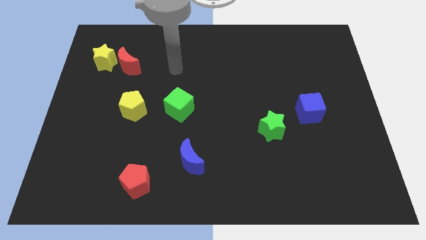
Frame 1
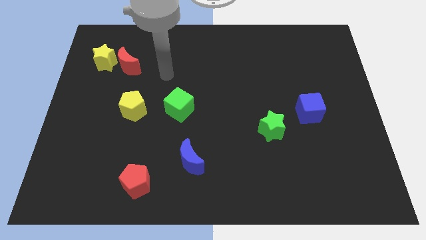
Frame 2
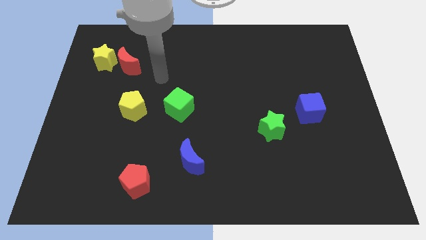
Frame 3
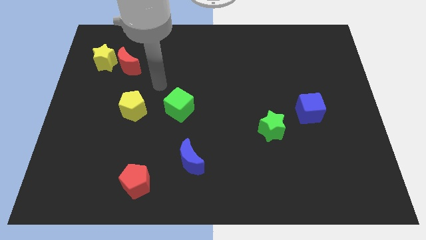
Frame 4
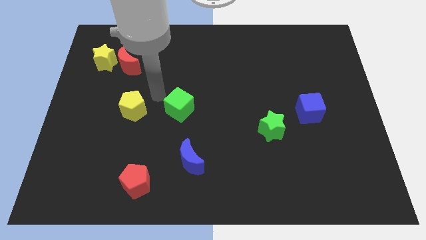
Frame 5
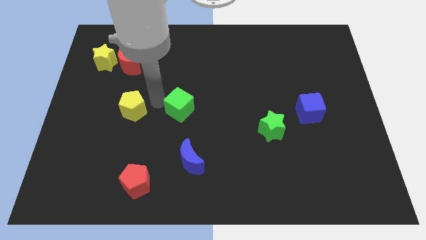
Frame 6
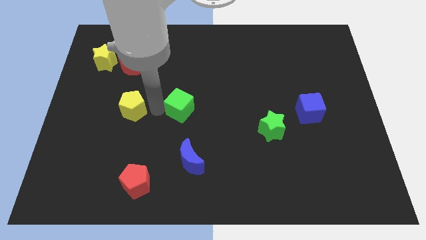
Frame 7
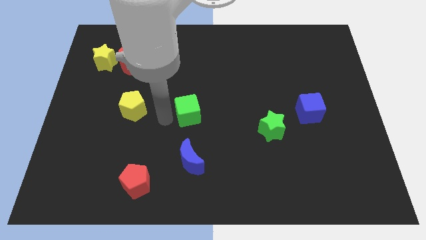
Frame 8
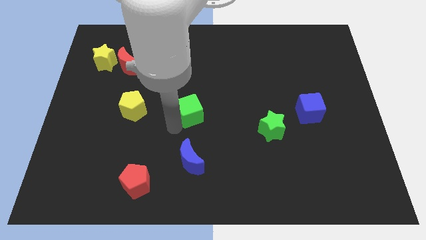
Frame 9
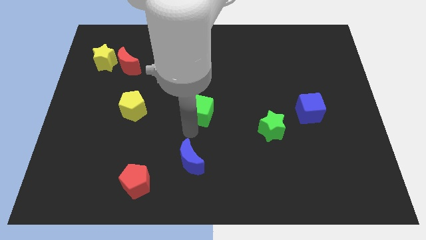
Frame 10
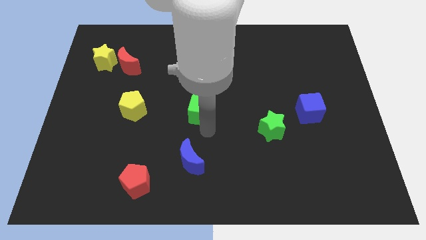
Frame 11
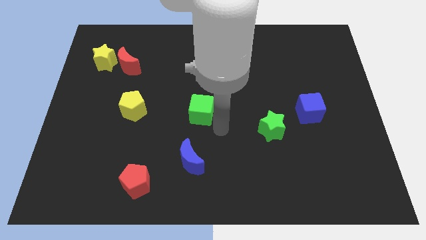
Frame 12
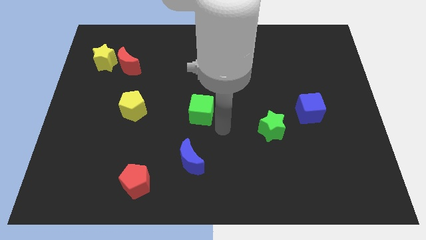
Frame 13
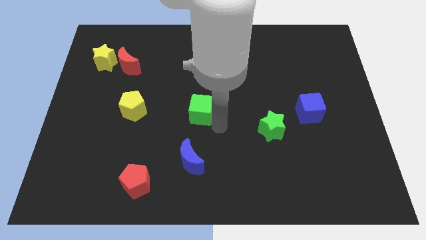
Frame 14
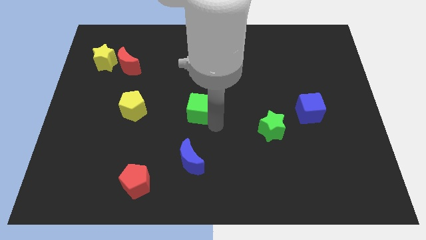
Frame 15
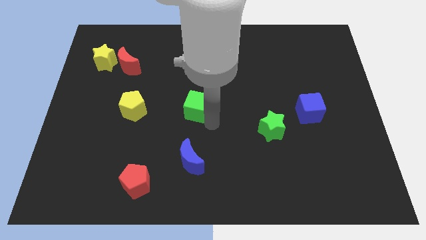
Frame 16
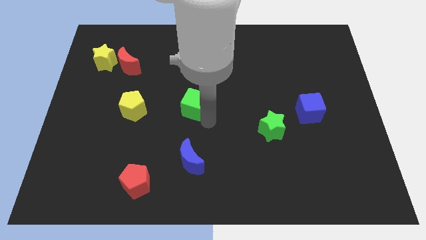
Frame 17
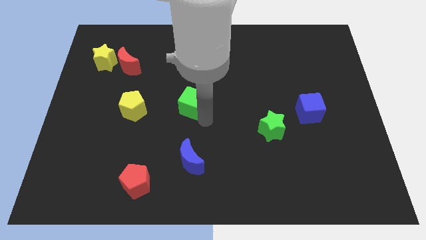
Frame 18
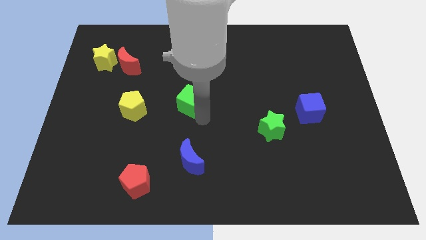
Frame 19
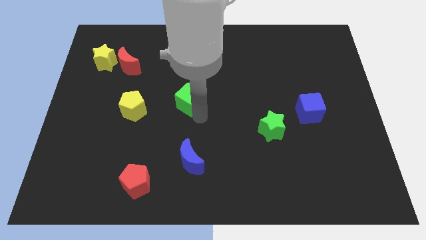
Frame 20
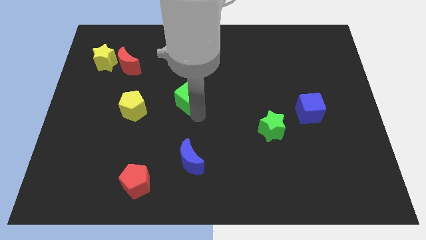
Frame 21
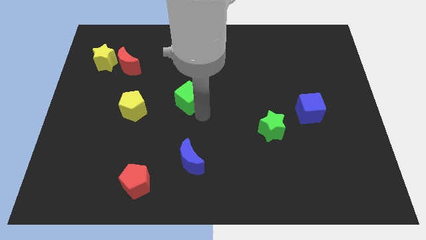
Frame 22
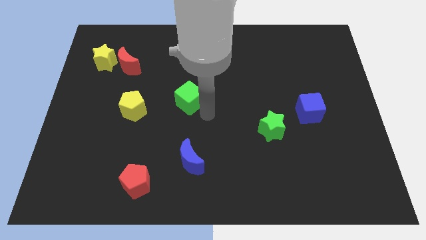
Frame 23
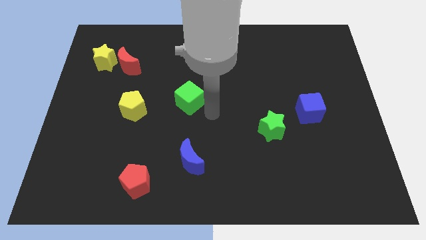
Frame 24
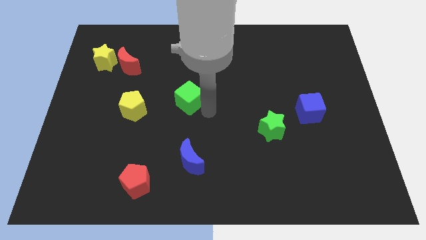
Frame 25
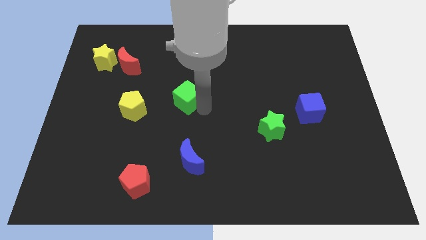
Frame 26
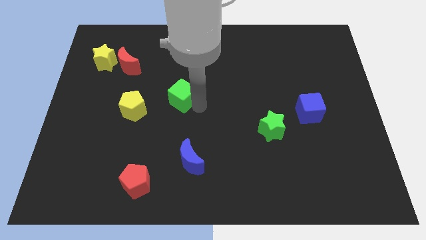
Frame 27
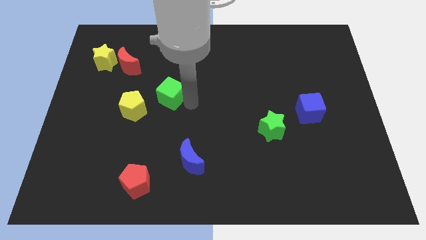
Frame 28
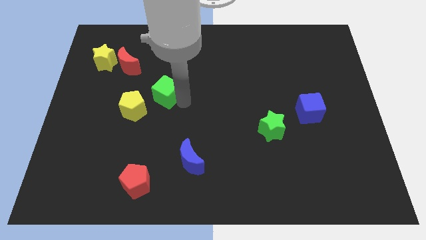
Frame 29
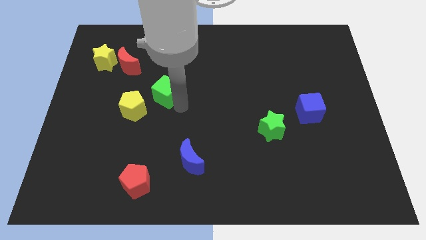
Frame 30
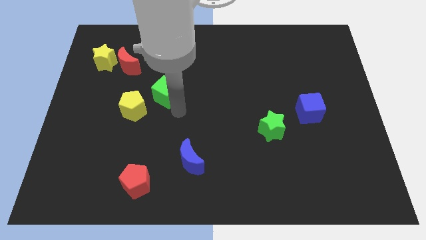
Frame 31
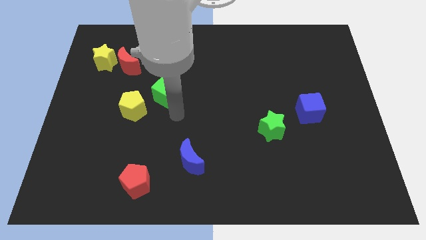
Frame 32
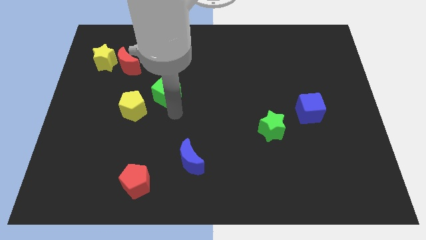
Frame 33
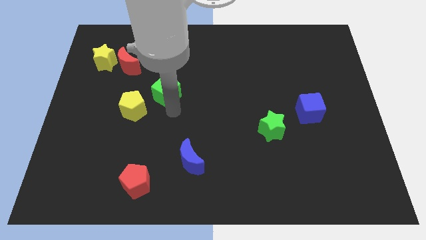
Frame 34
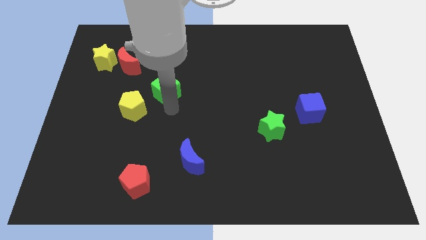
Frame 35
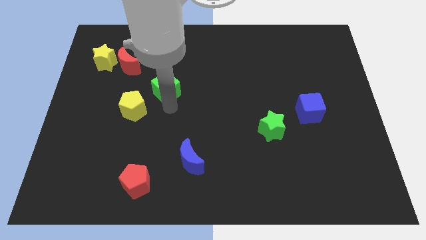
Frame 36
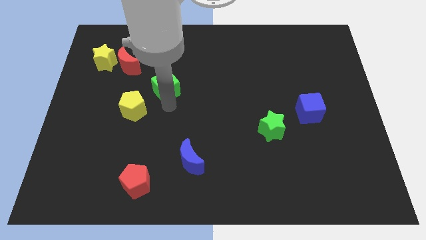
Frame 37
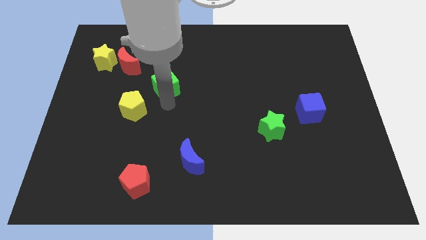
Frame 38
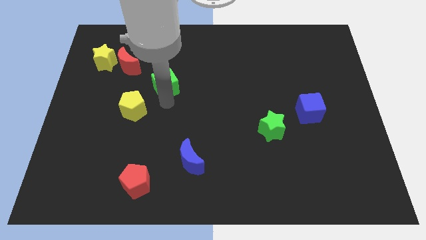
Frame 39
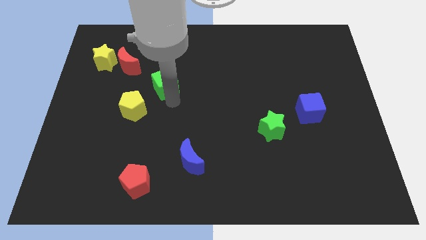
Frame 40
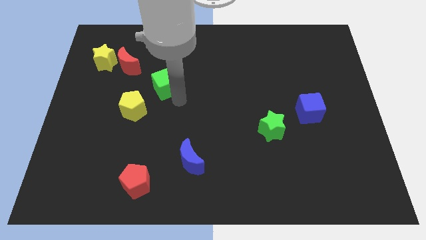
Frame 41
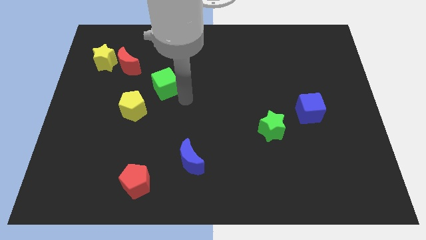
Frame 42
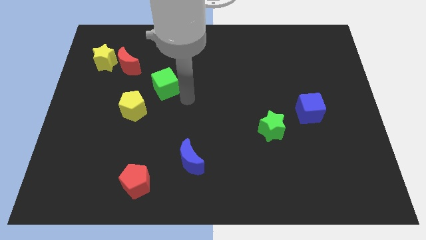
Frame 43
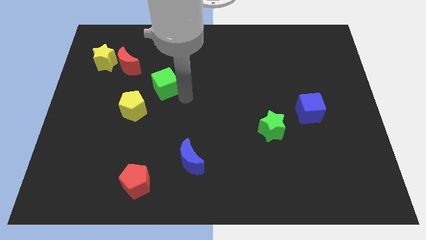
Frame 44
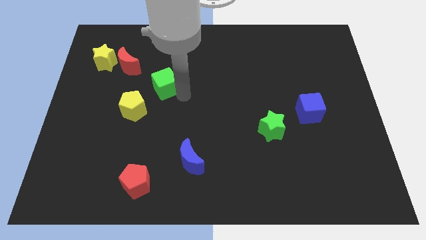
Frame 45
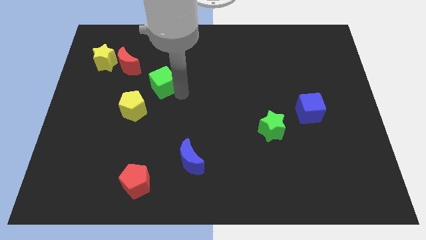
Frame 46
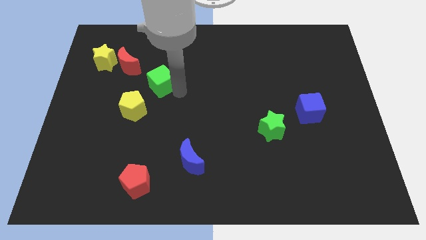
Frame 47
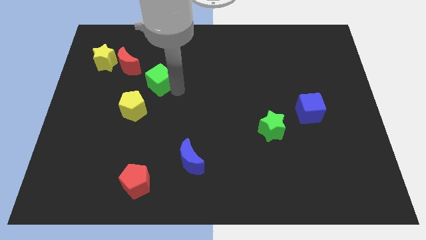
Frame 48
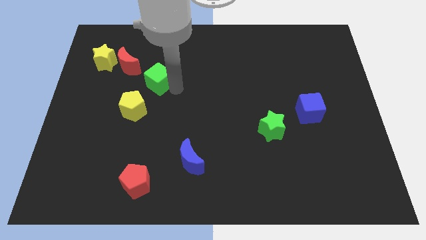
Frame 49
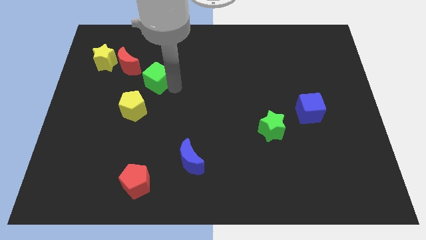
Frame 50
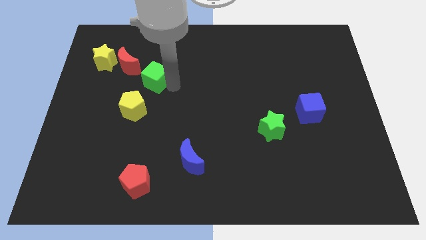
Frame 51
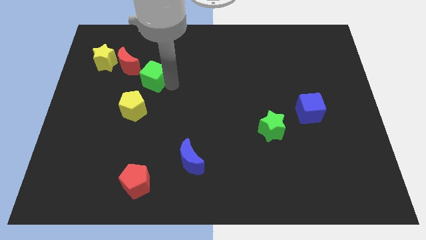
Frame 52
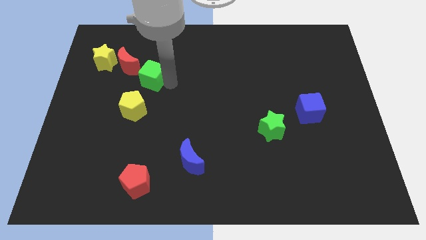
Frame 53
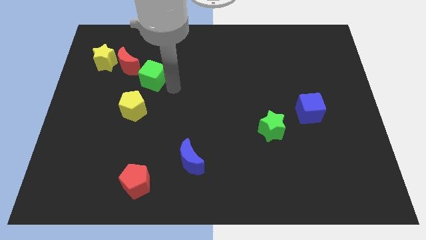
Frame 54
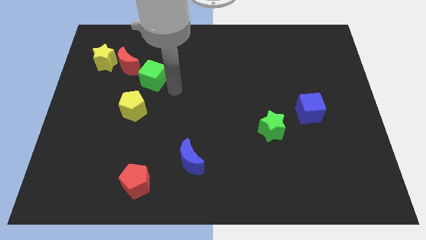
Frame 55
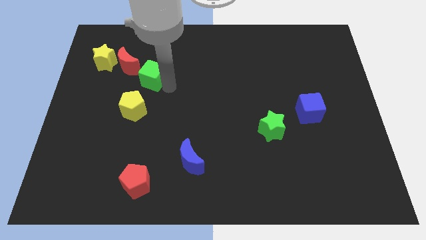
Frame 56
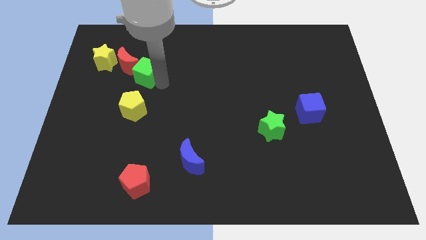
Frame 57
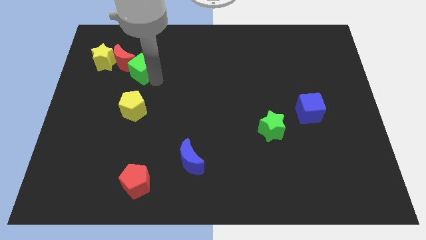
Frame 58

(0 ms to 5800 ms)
move the green cube to the red moon

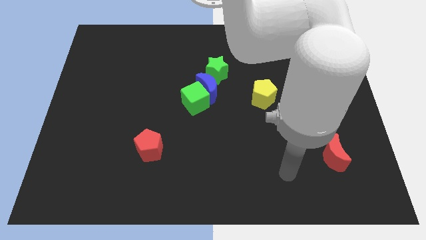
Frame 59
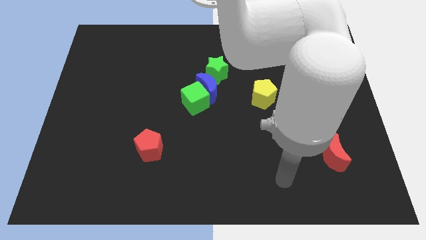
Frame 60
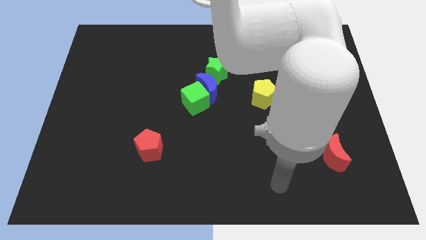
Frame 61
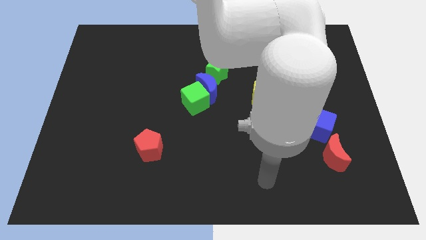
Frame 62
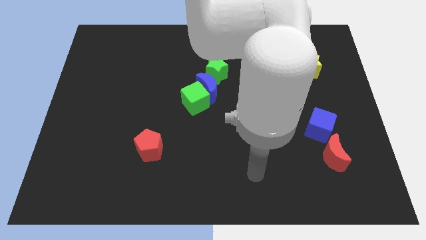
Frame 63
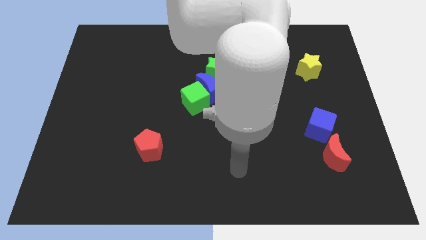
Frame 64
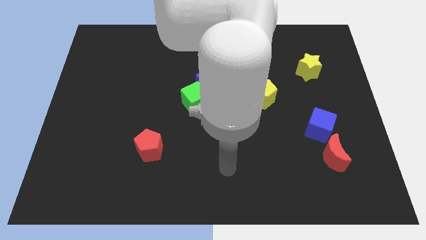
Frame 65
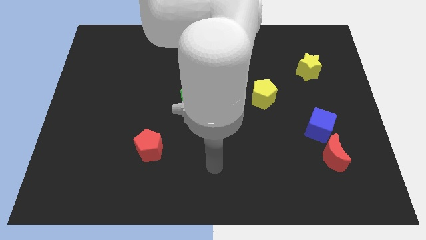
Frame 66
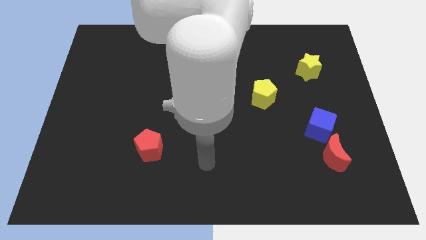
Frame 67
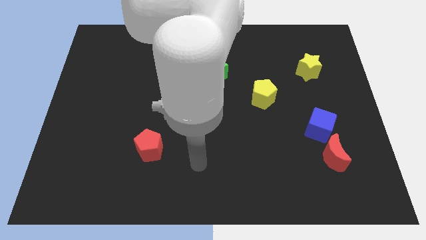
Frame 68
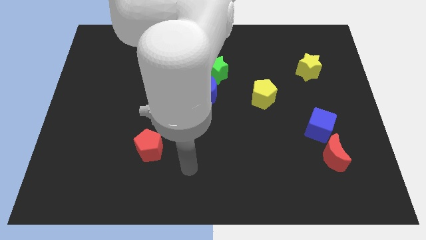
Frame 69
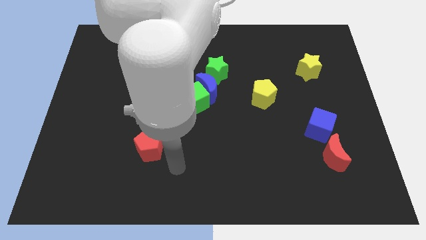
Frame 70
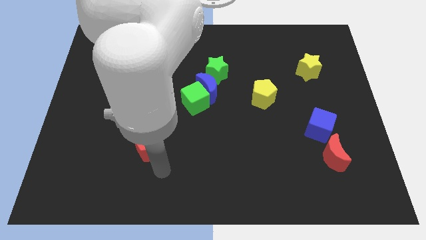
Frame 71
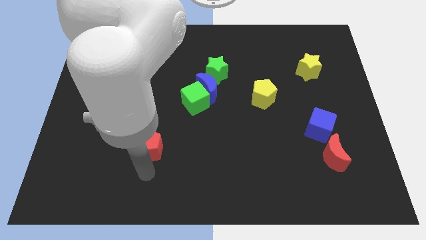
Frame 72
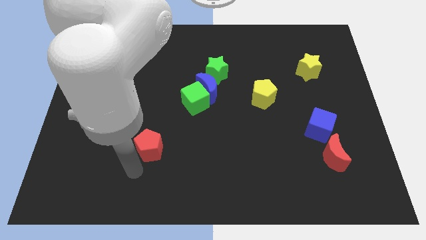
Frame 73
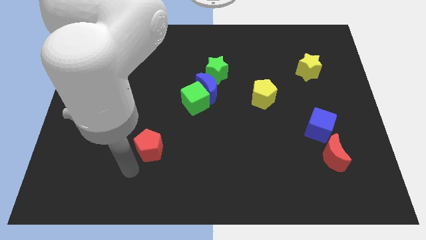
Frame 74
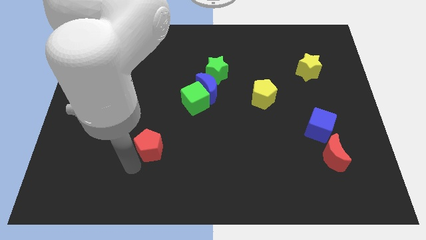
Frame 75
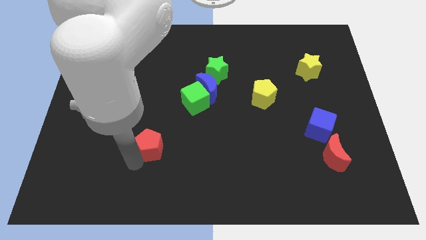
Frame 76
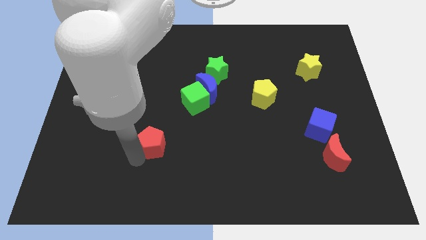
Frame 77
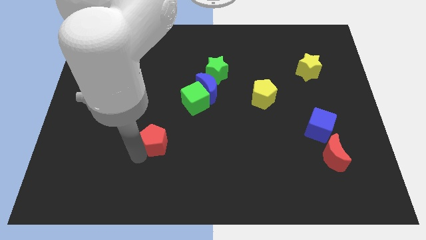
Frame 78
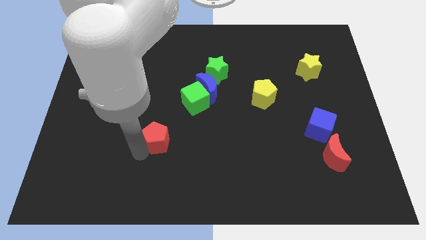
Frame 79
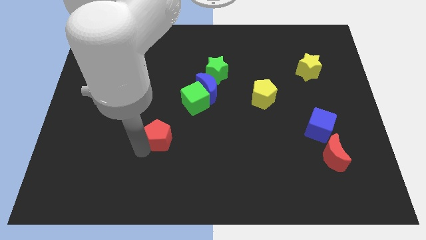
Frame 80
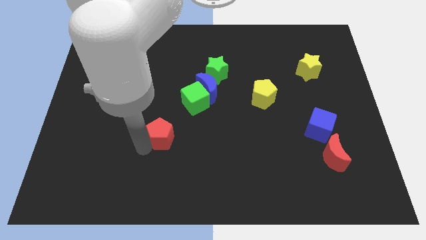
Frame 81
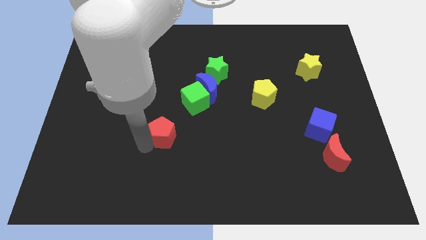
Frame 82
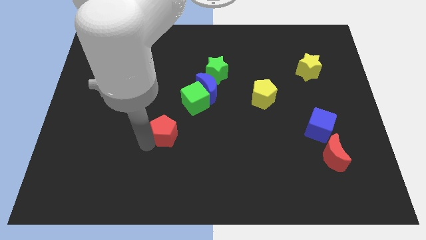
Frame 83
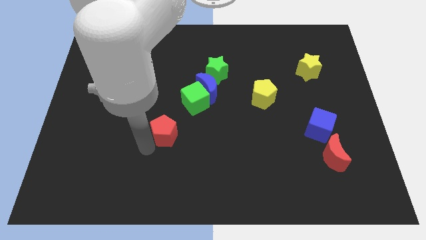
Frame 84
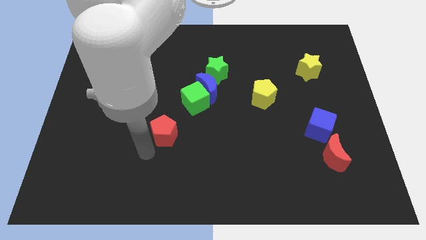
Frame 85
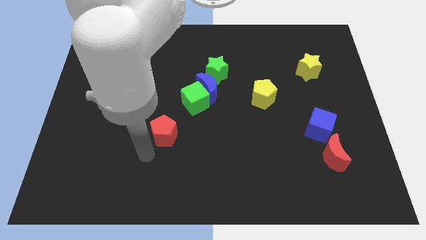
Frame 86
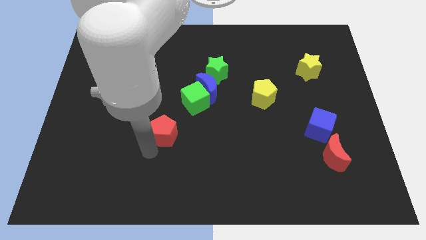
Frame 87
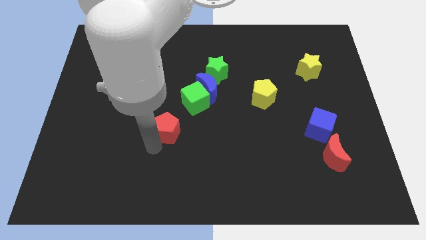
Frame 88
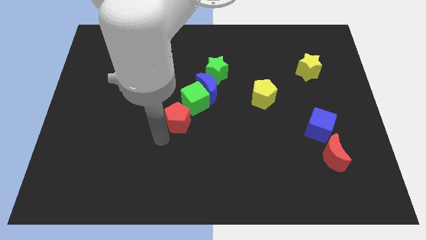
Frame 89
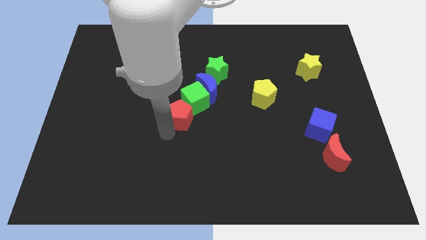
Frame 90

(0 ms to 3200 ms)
put the red pentagon next to the green cube
